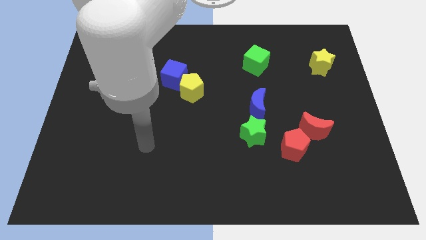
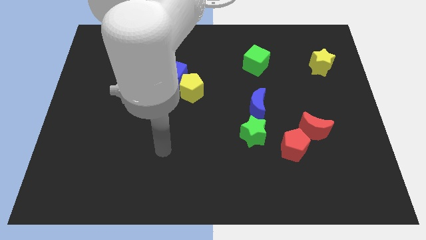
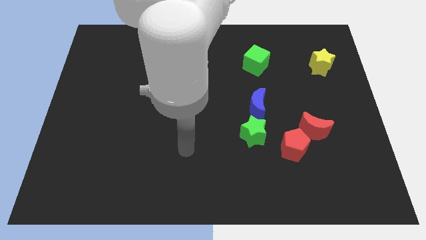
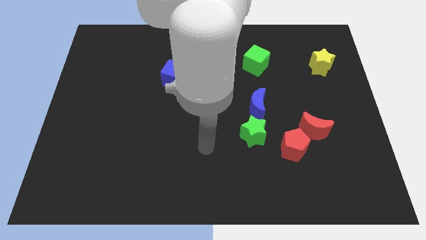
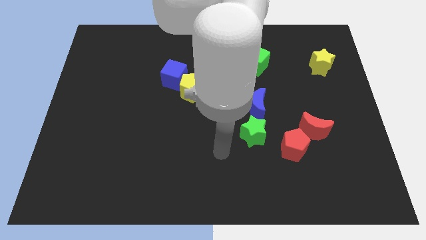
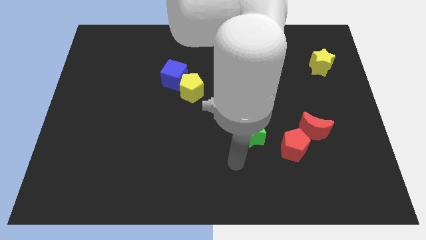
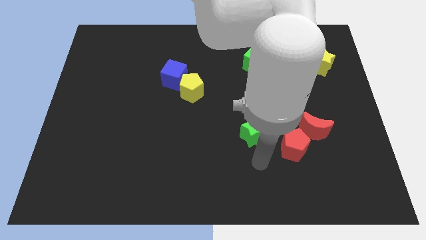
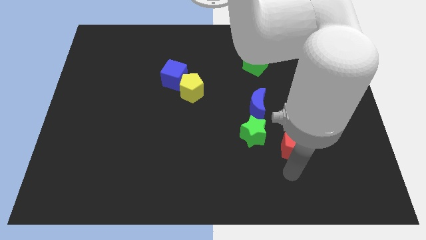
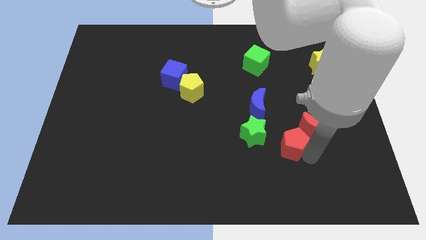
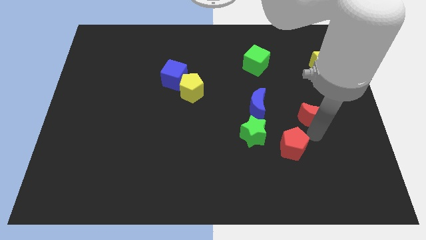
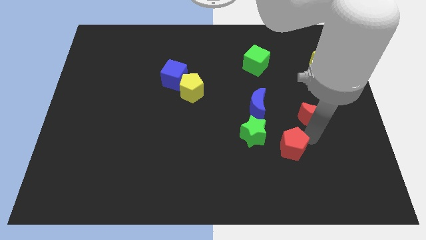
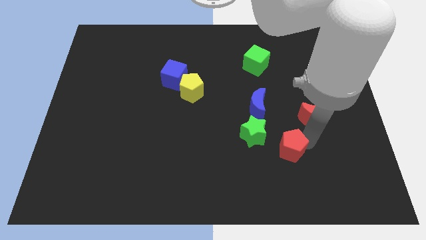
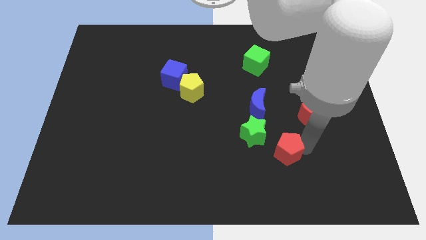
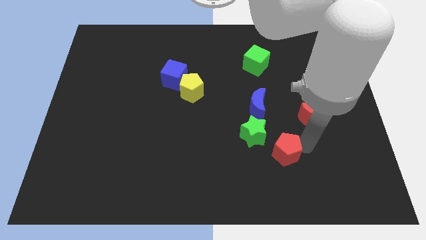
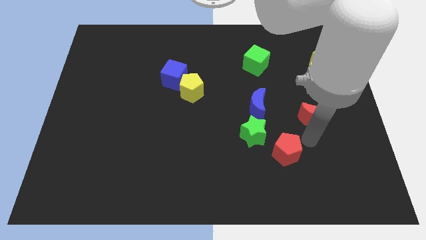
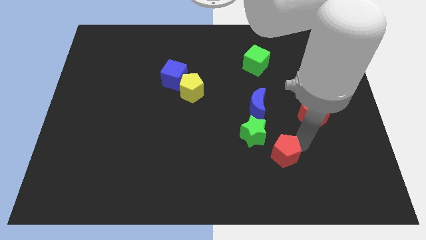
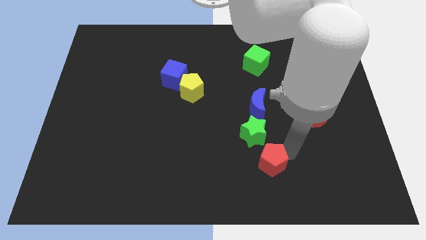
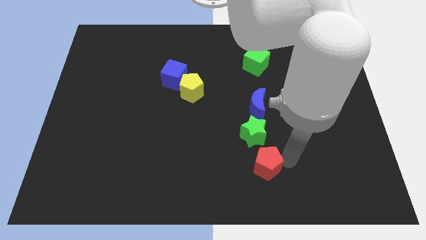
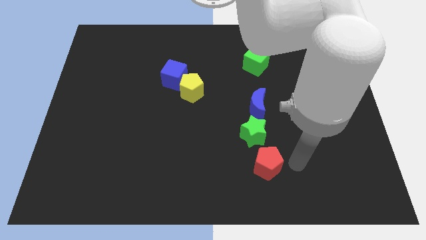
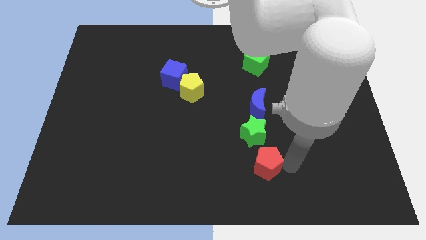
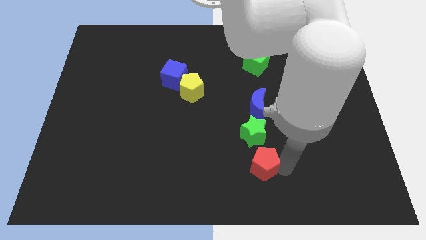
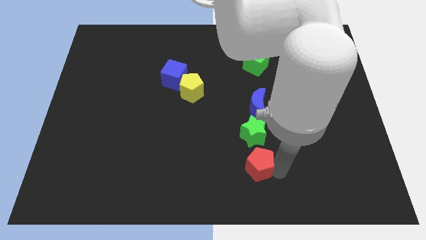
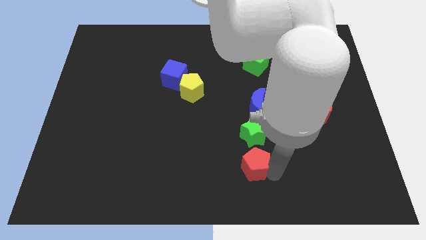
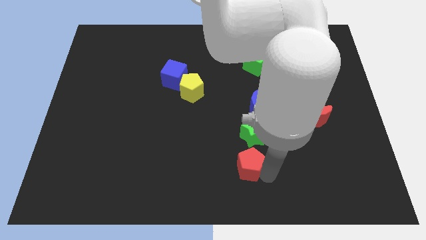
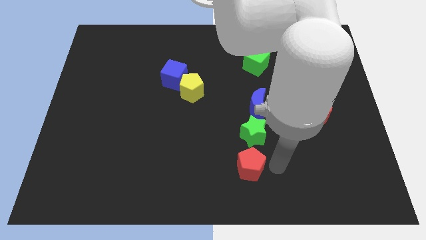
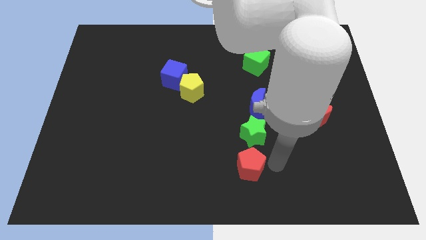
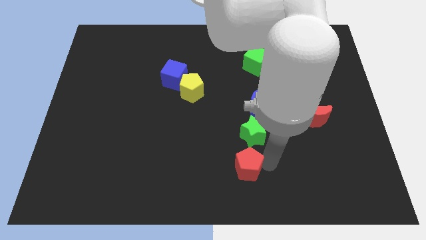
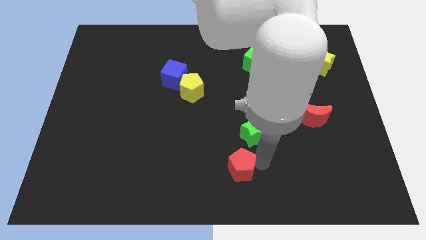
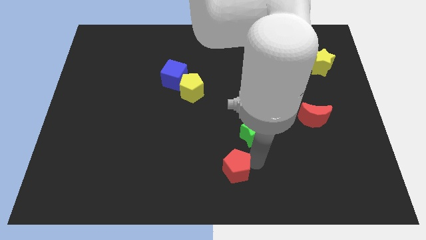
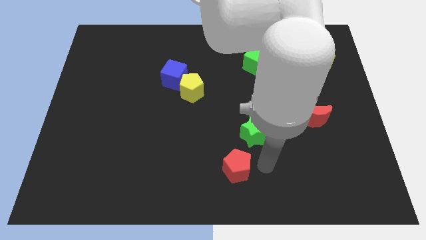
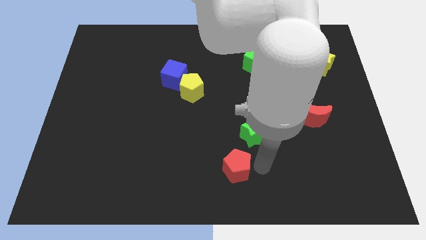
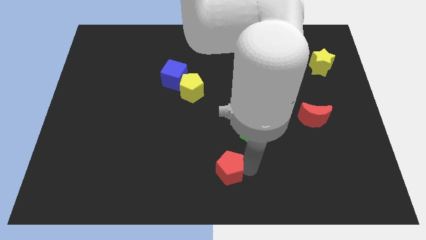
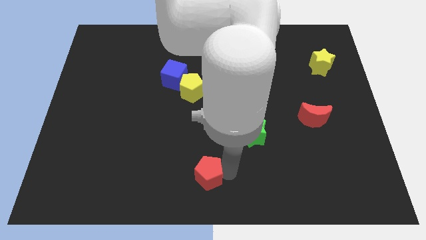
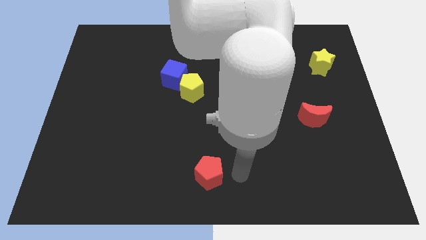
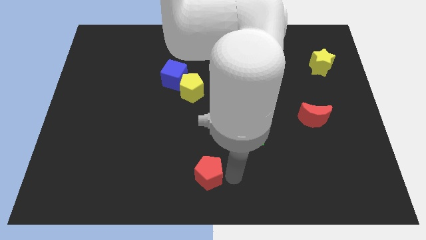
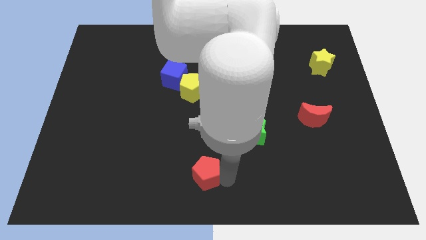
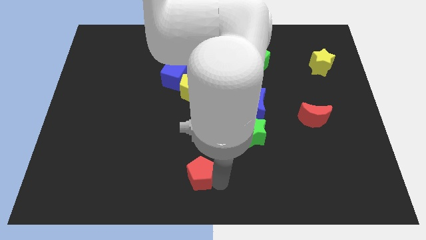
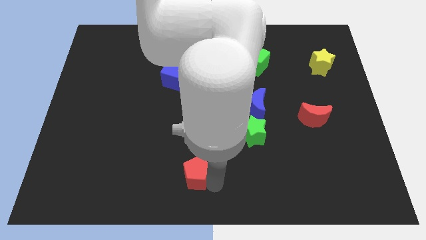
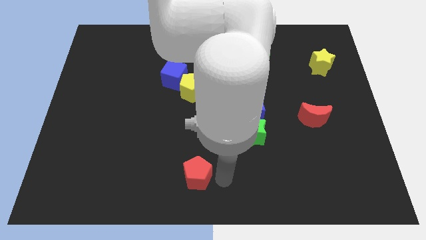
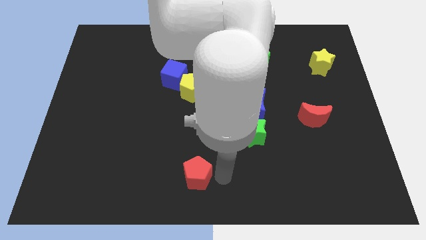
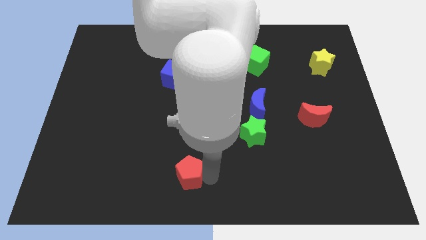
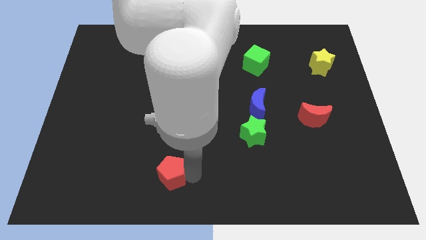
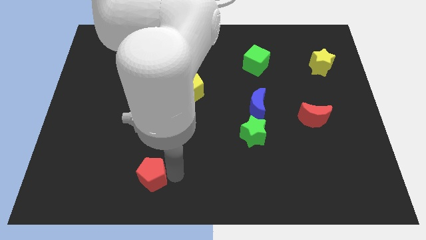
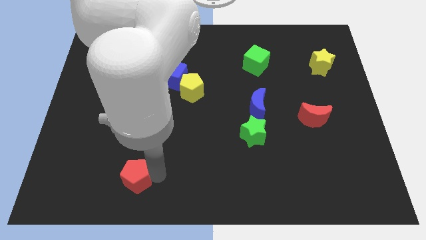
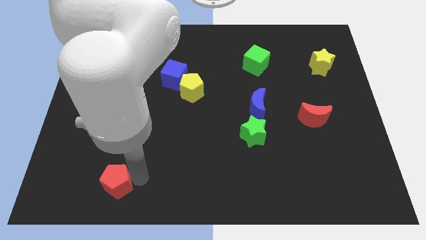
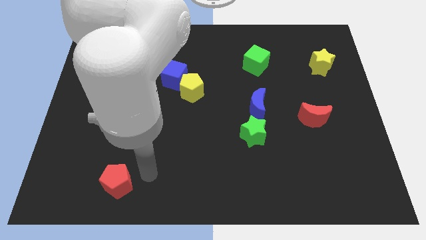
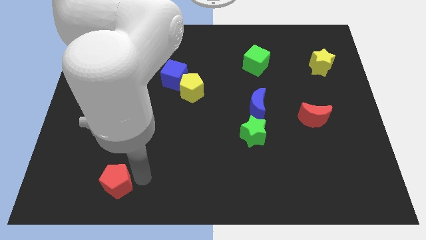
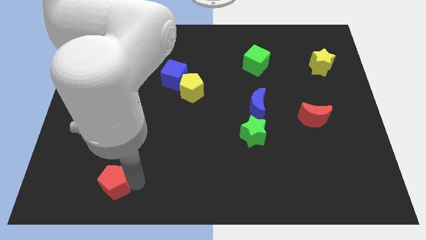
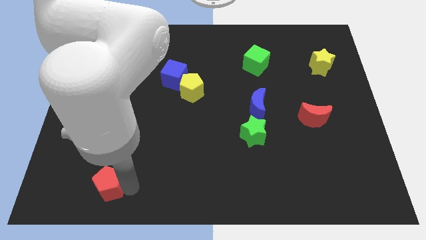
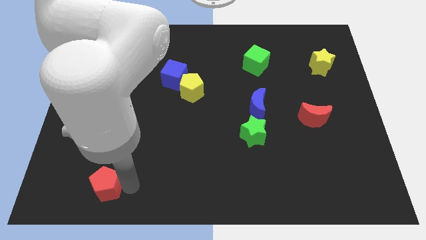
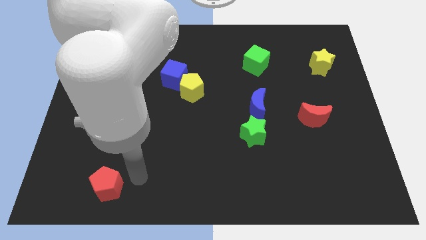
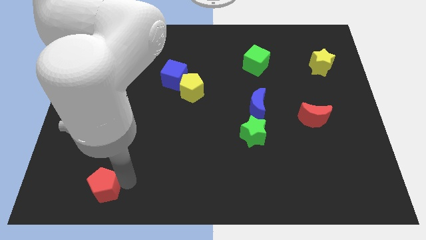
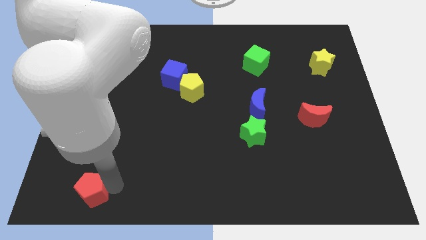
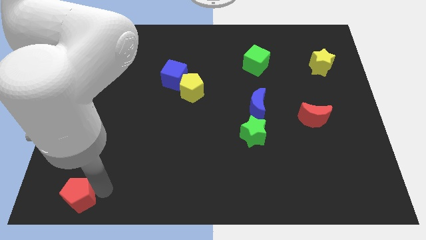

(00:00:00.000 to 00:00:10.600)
put the red pentagon to the bottom left of the board

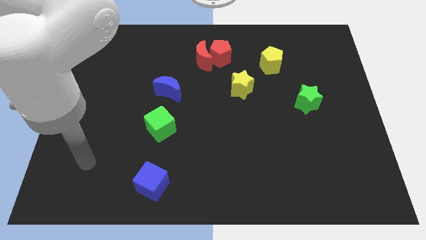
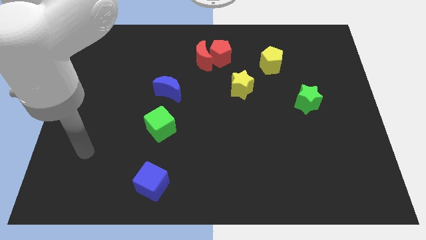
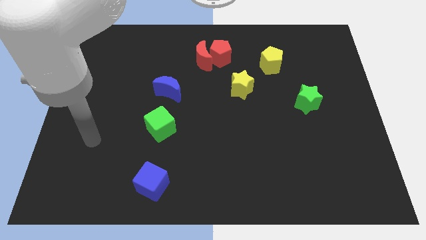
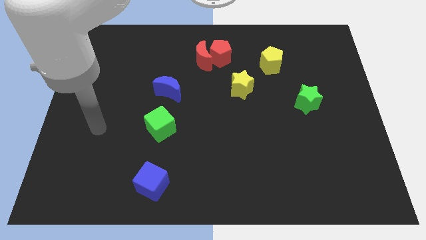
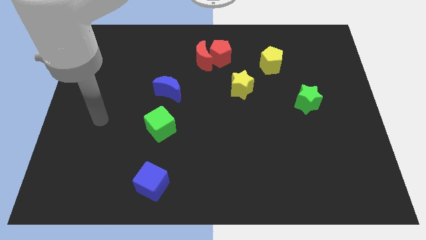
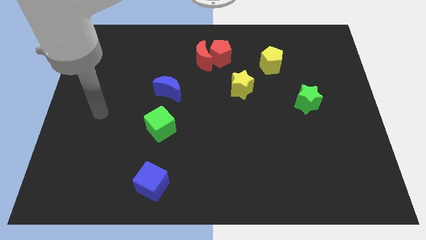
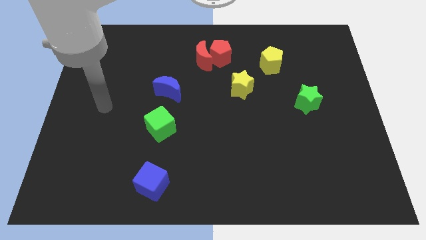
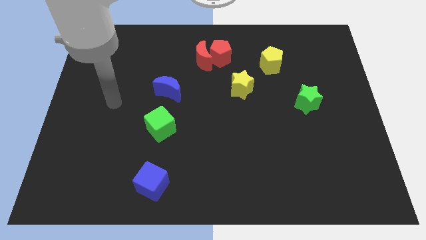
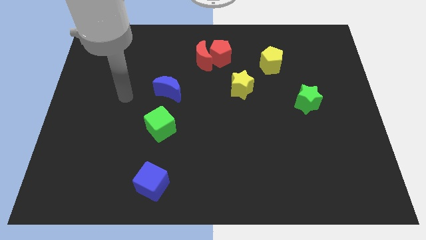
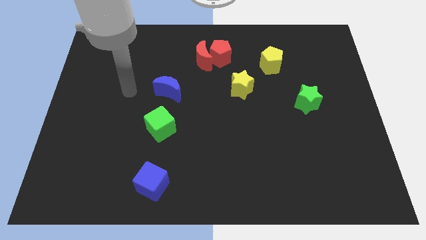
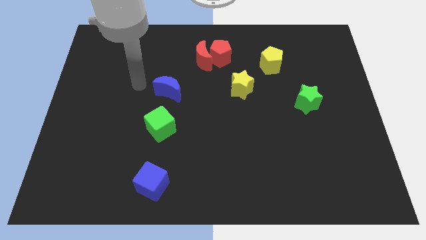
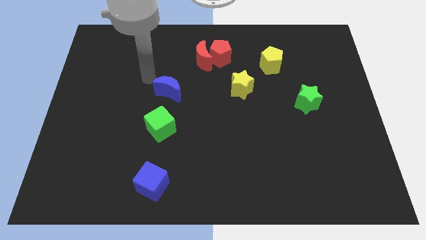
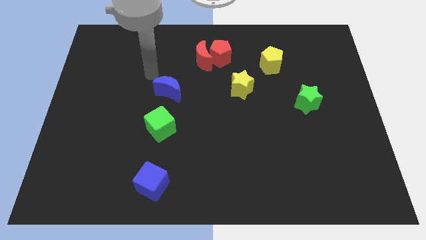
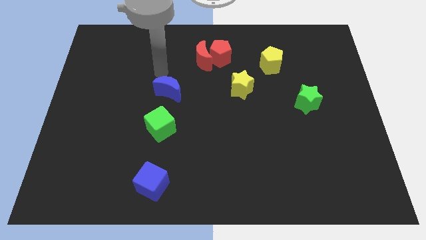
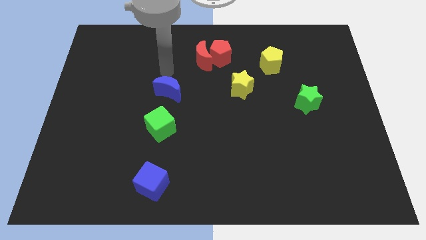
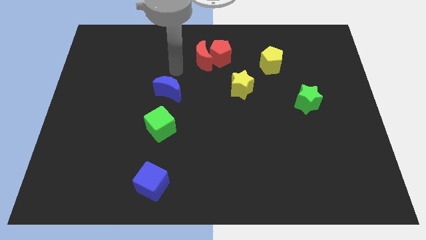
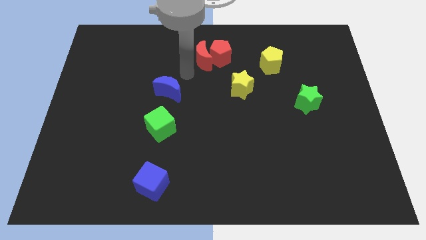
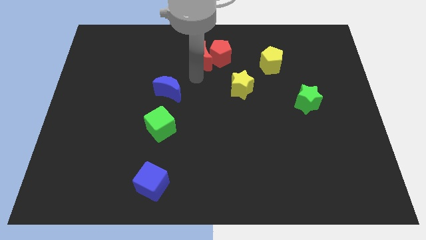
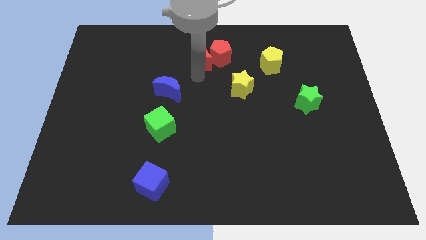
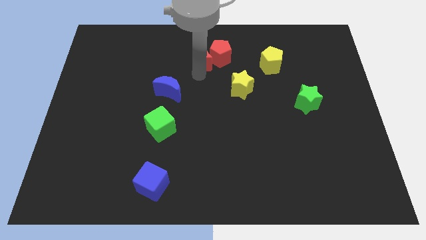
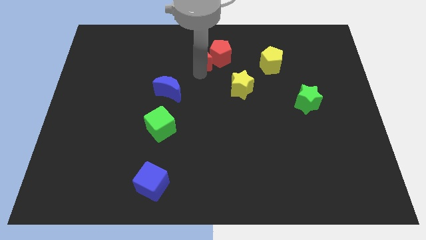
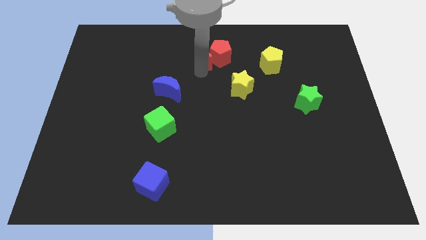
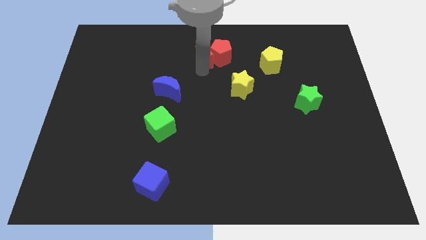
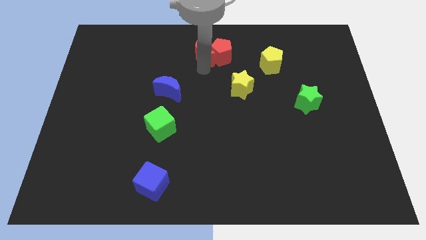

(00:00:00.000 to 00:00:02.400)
put the red moon to the top side
